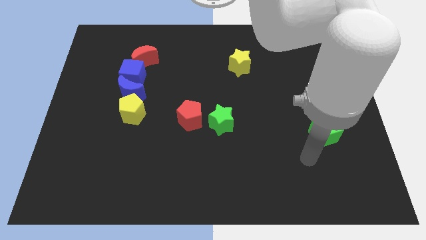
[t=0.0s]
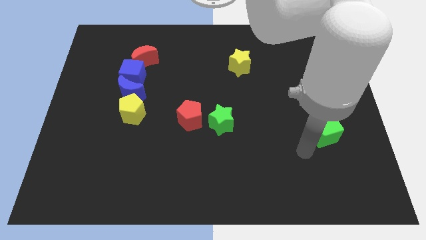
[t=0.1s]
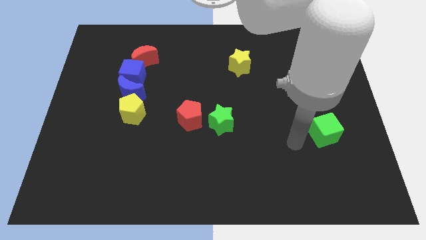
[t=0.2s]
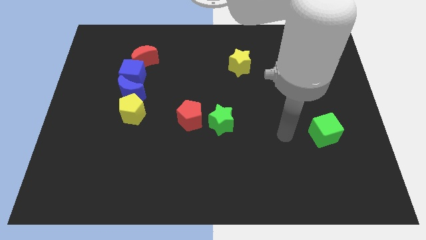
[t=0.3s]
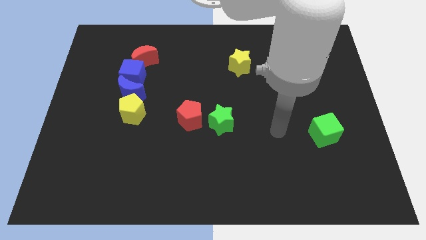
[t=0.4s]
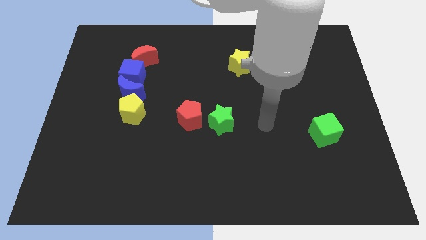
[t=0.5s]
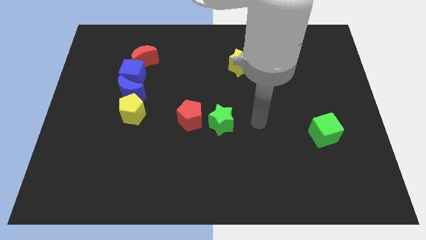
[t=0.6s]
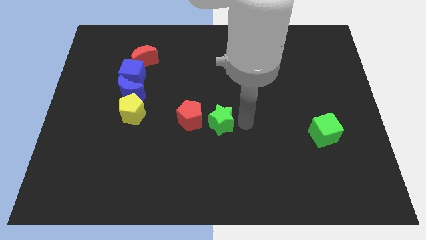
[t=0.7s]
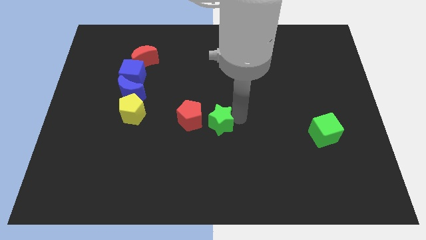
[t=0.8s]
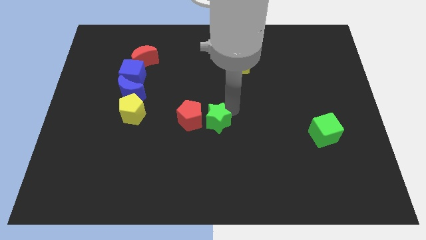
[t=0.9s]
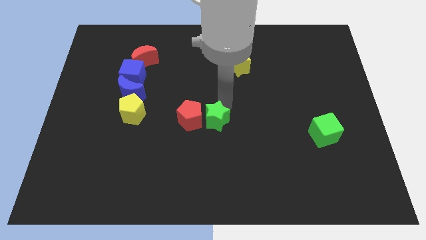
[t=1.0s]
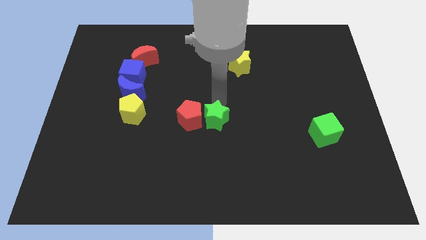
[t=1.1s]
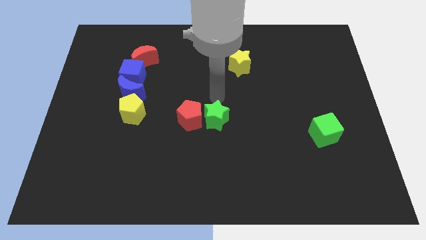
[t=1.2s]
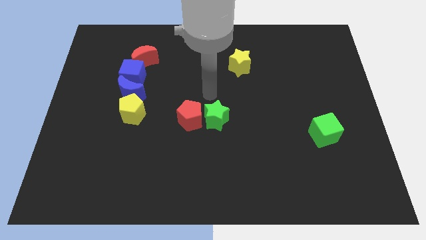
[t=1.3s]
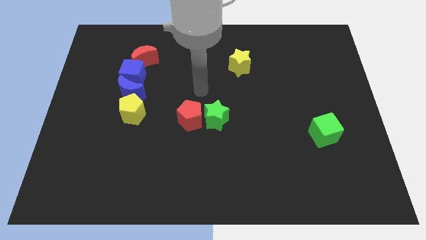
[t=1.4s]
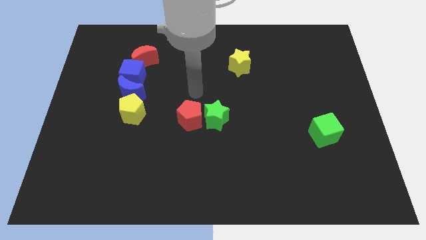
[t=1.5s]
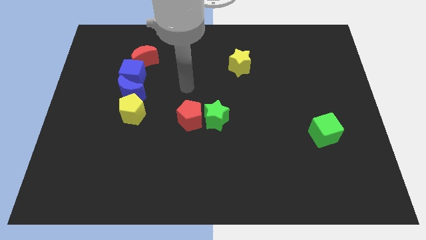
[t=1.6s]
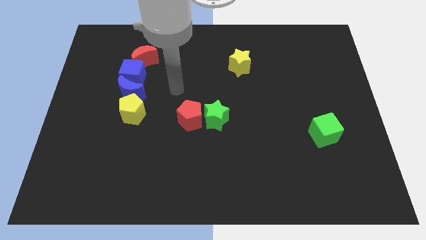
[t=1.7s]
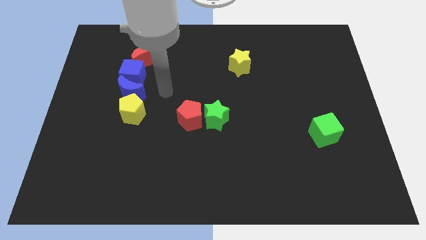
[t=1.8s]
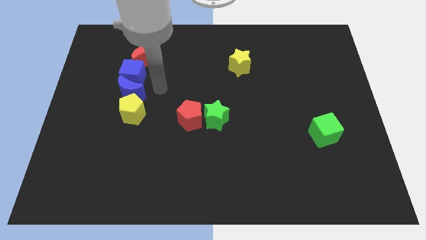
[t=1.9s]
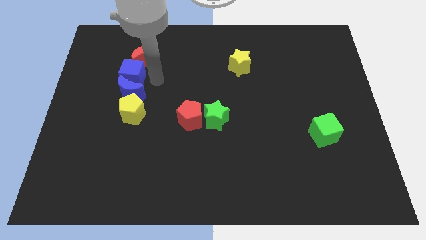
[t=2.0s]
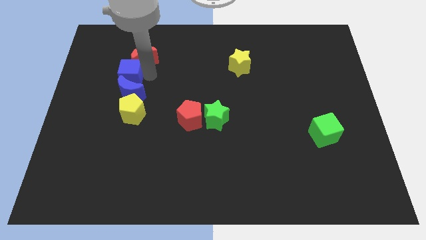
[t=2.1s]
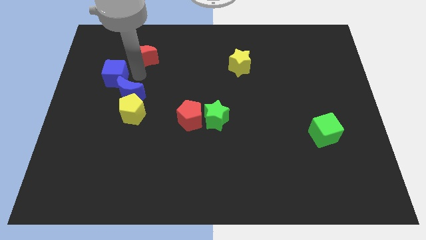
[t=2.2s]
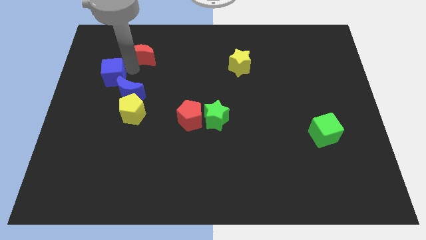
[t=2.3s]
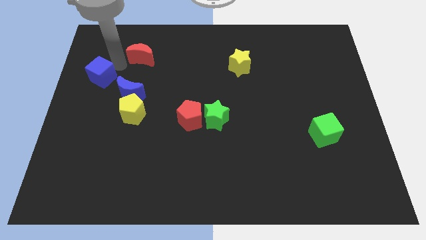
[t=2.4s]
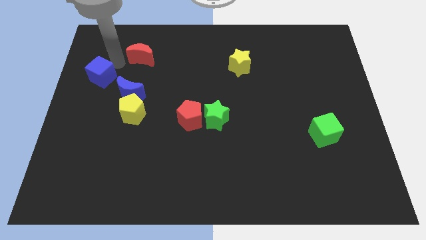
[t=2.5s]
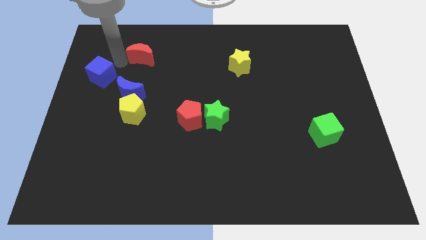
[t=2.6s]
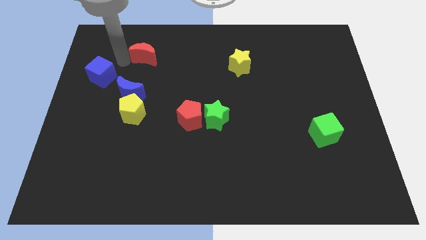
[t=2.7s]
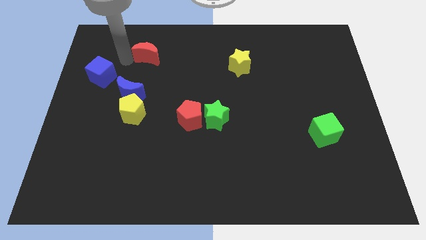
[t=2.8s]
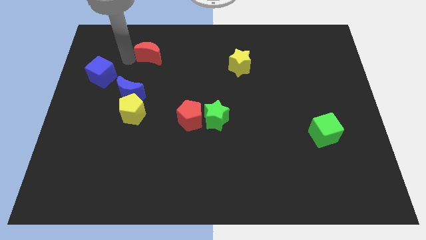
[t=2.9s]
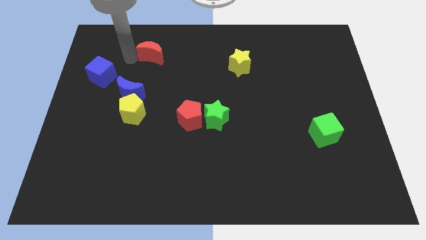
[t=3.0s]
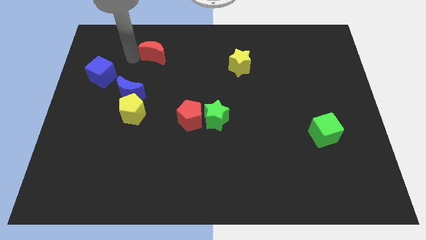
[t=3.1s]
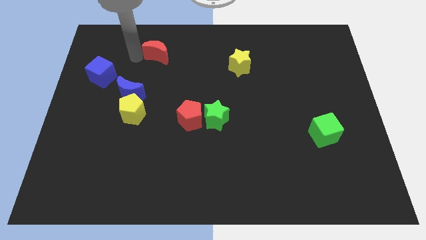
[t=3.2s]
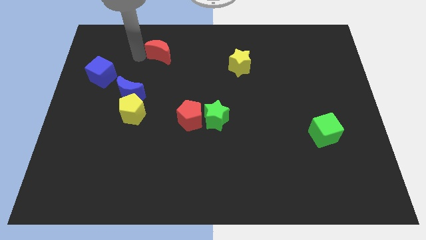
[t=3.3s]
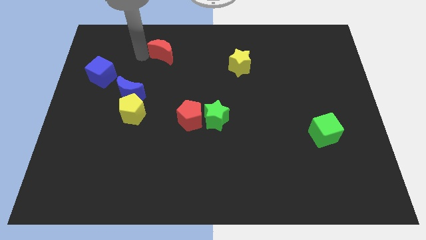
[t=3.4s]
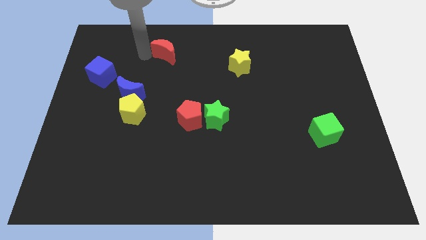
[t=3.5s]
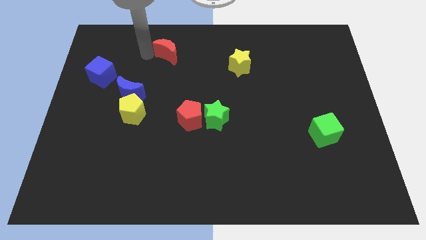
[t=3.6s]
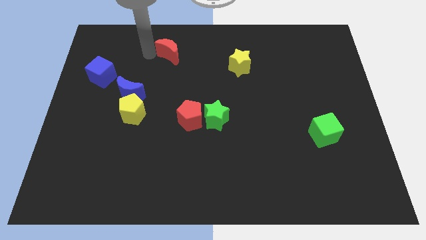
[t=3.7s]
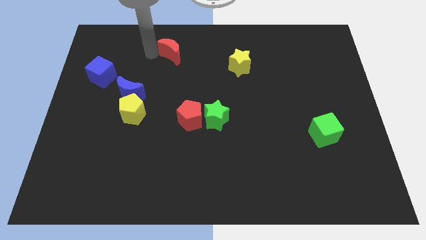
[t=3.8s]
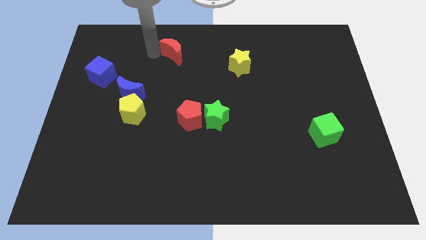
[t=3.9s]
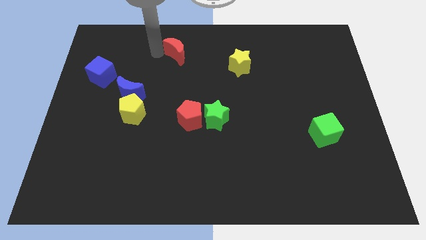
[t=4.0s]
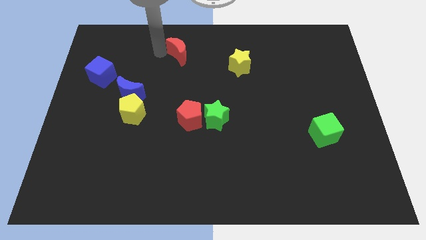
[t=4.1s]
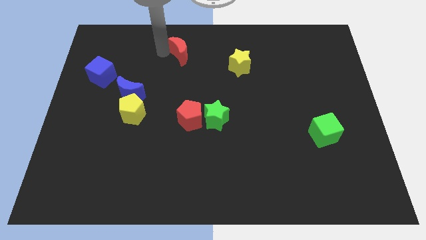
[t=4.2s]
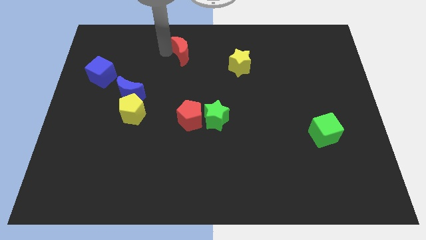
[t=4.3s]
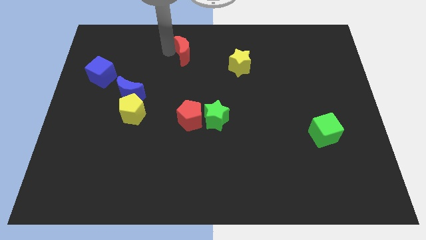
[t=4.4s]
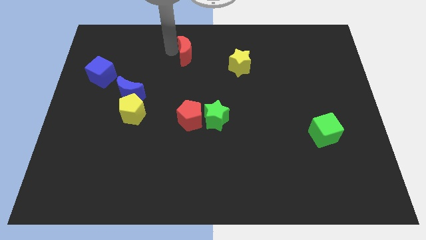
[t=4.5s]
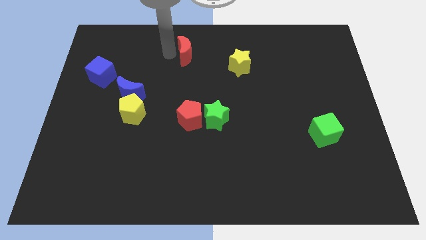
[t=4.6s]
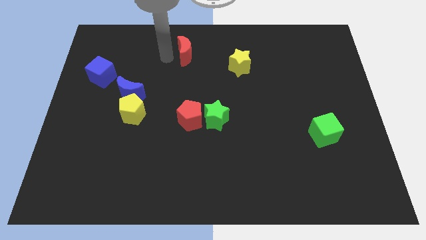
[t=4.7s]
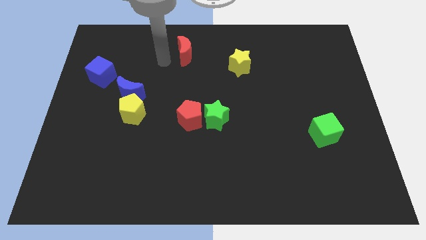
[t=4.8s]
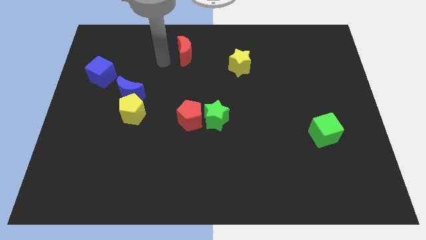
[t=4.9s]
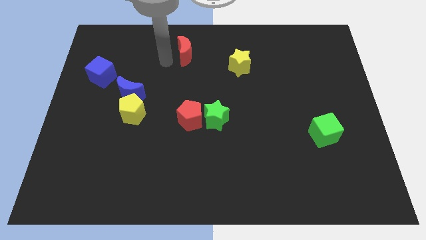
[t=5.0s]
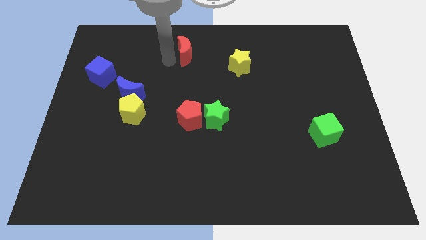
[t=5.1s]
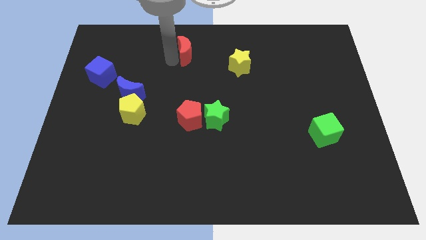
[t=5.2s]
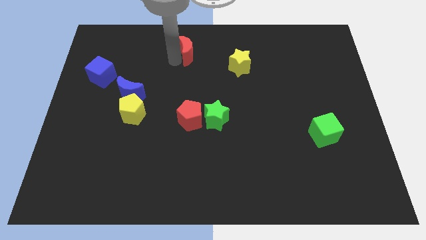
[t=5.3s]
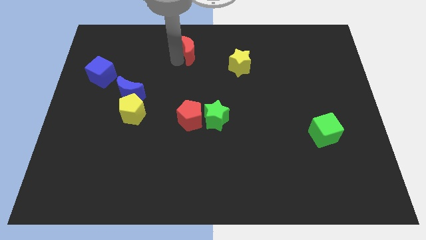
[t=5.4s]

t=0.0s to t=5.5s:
push the red moon to the towards your base
